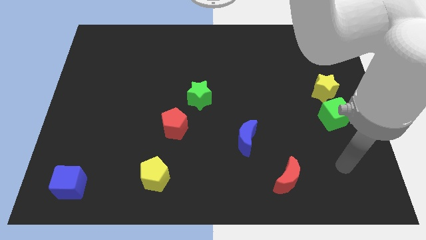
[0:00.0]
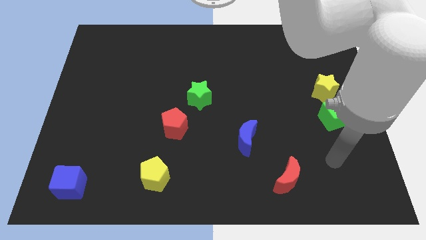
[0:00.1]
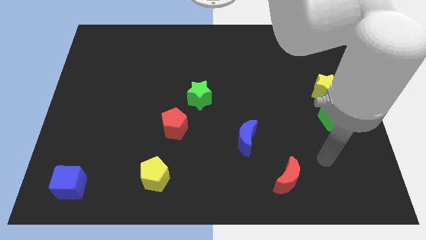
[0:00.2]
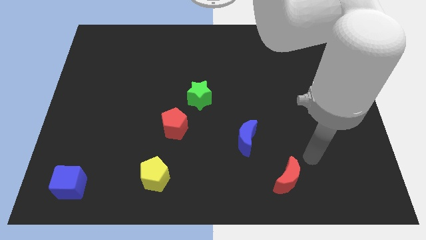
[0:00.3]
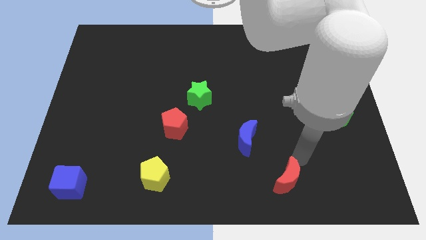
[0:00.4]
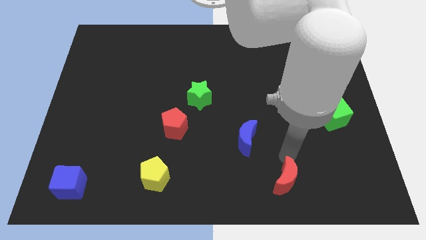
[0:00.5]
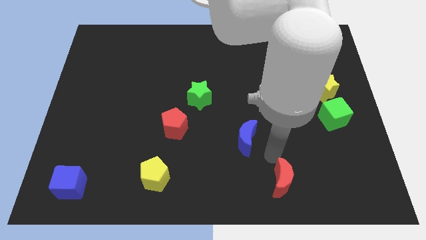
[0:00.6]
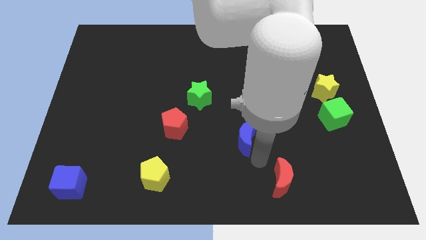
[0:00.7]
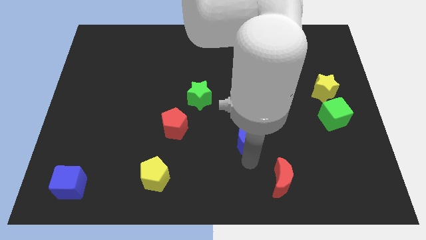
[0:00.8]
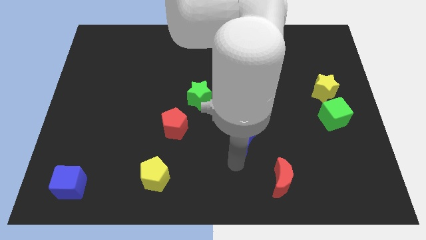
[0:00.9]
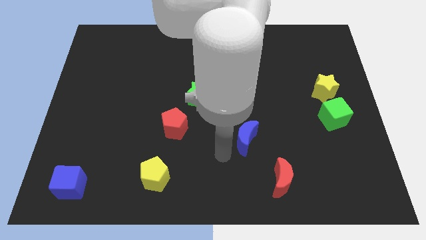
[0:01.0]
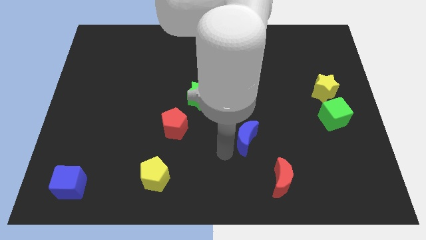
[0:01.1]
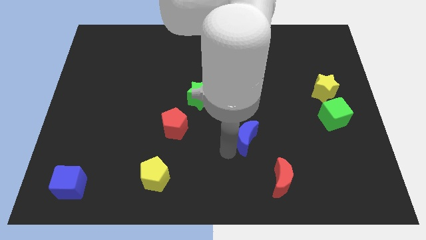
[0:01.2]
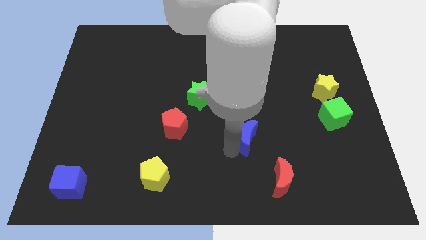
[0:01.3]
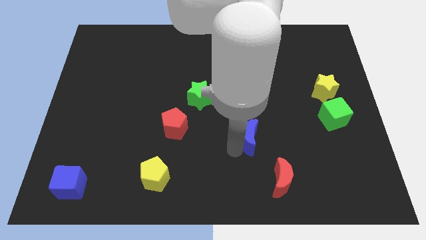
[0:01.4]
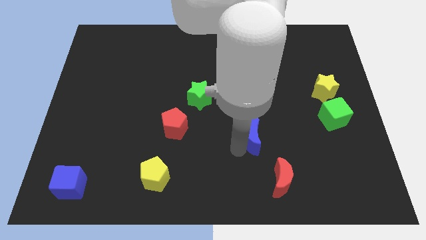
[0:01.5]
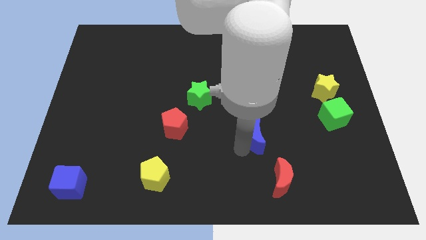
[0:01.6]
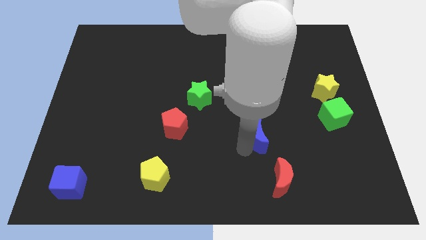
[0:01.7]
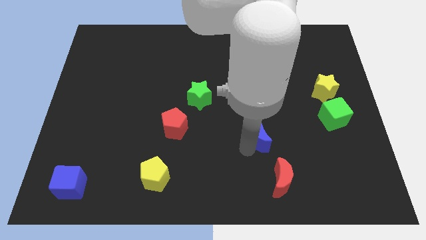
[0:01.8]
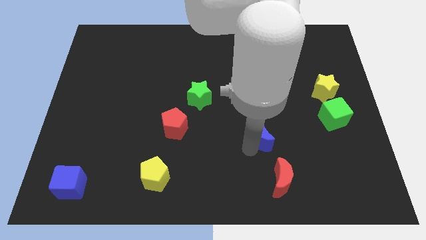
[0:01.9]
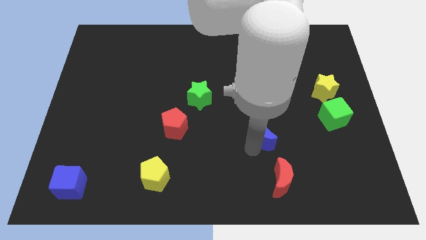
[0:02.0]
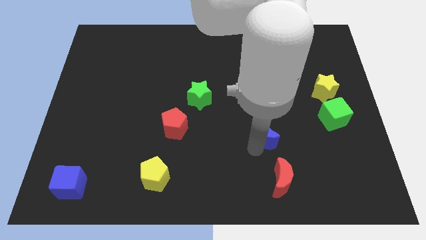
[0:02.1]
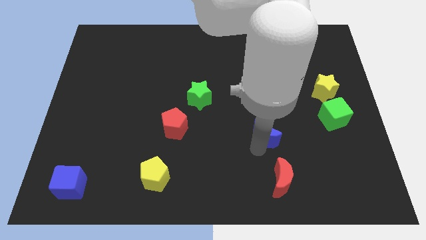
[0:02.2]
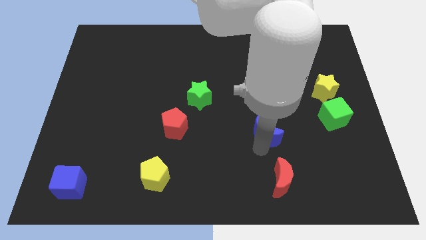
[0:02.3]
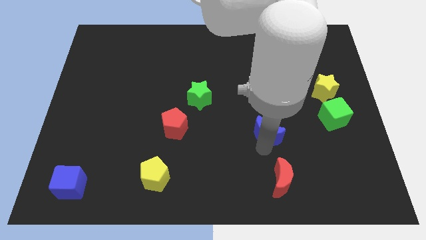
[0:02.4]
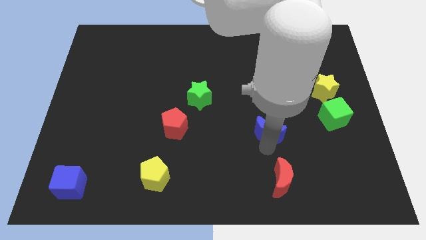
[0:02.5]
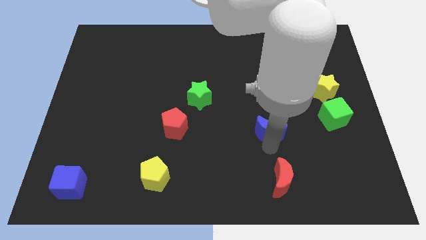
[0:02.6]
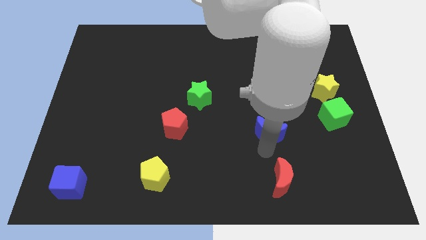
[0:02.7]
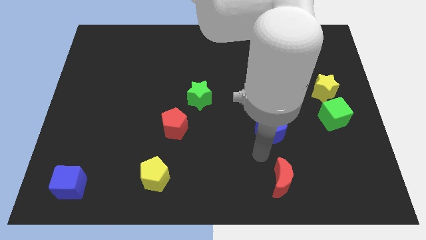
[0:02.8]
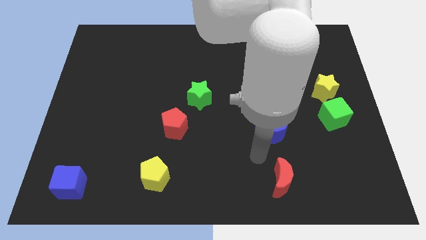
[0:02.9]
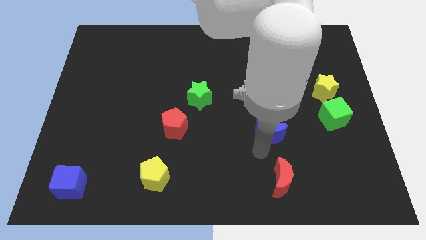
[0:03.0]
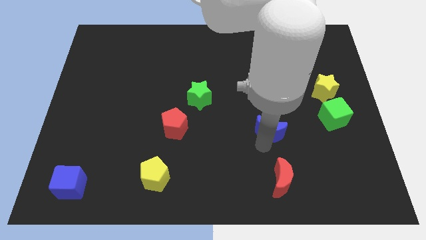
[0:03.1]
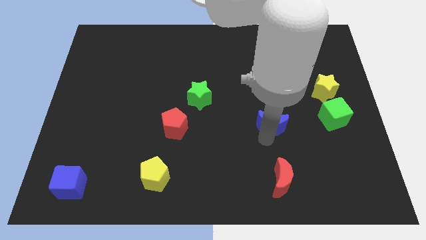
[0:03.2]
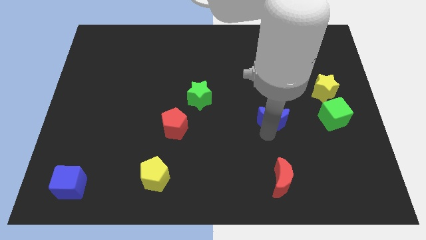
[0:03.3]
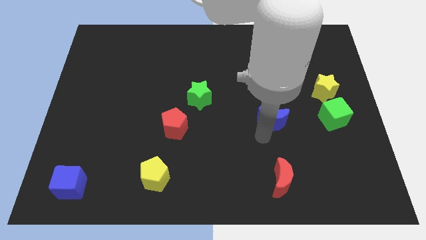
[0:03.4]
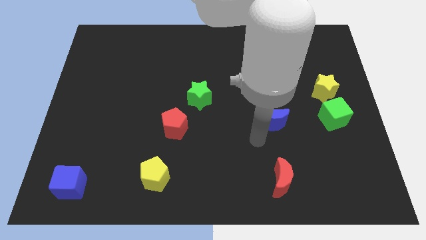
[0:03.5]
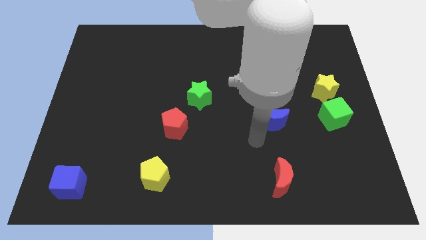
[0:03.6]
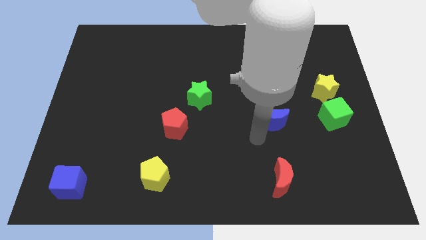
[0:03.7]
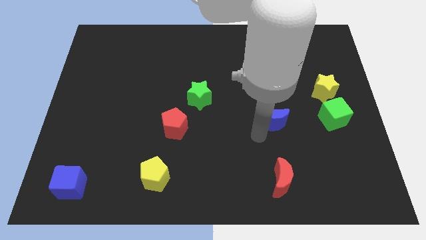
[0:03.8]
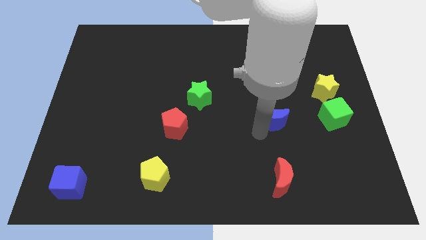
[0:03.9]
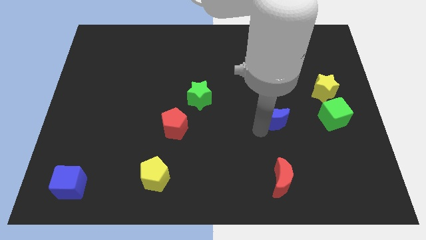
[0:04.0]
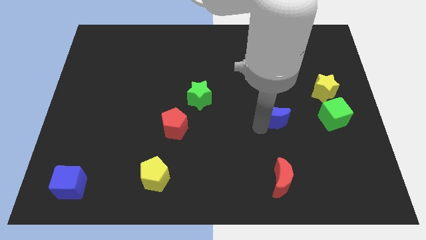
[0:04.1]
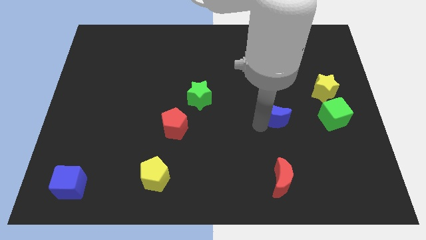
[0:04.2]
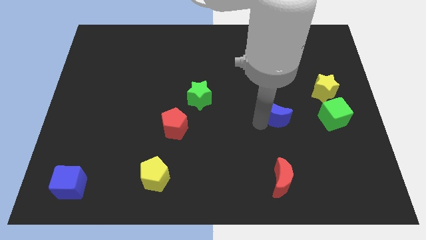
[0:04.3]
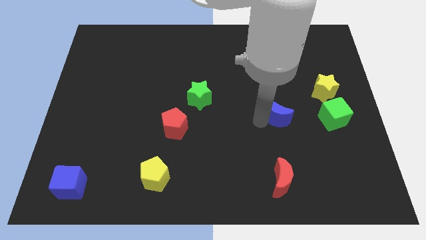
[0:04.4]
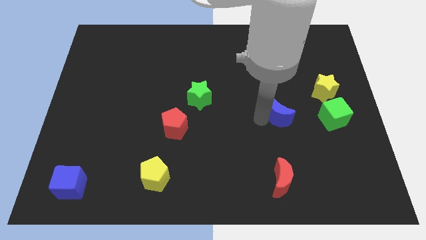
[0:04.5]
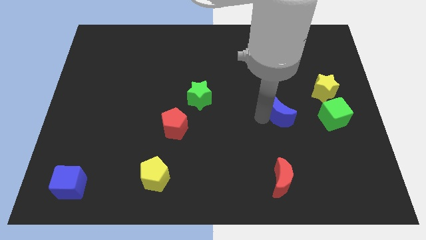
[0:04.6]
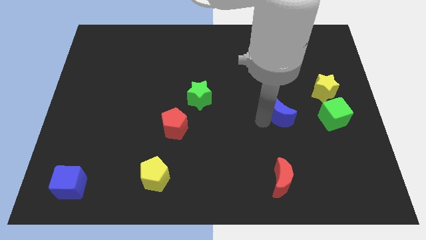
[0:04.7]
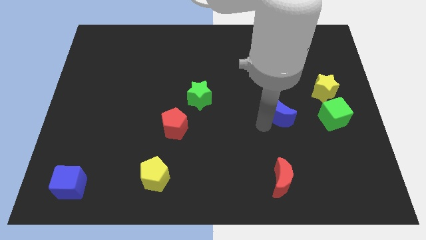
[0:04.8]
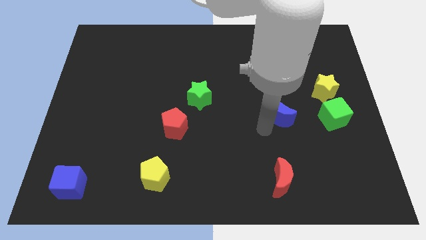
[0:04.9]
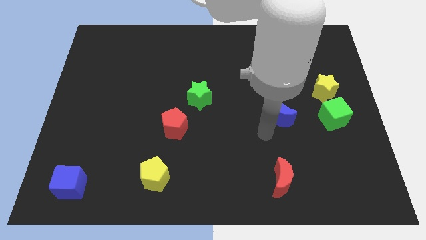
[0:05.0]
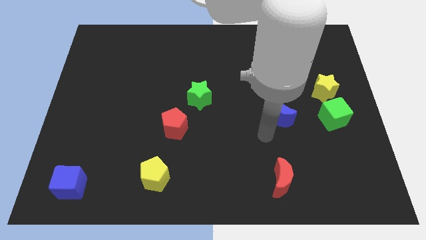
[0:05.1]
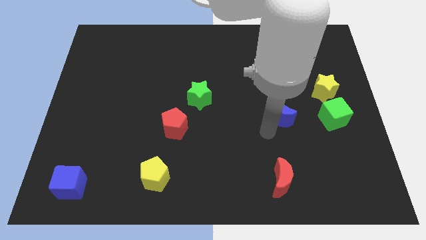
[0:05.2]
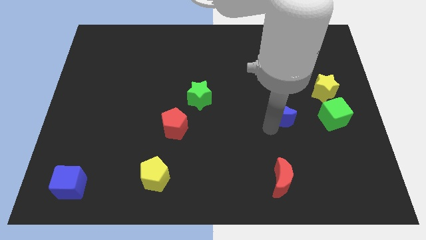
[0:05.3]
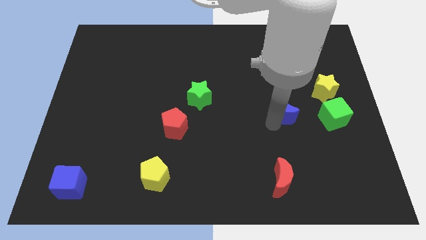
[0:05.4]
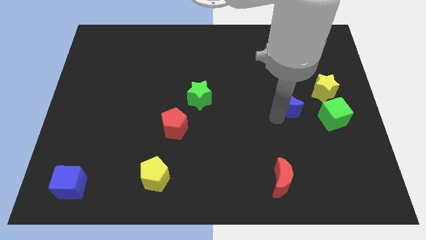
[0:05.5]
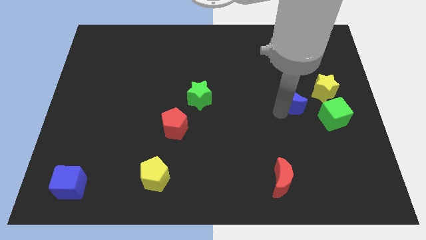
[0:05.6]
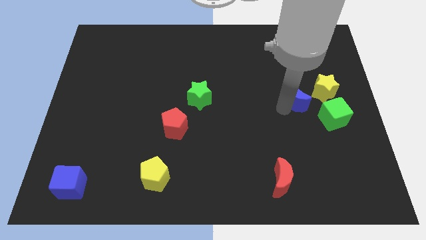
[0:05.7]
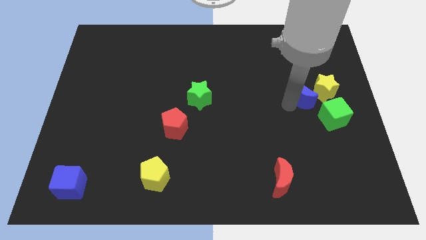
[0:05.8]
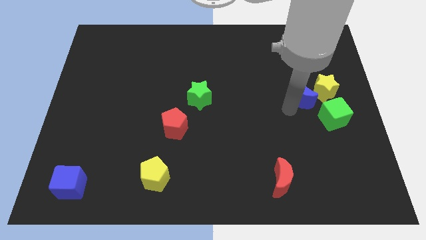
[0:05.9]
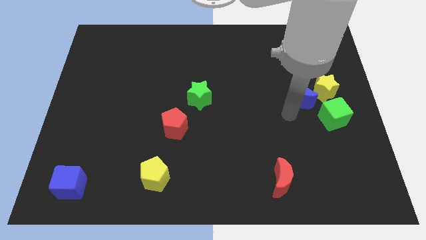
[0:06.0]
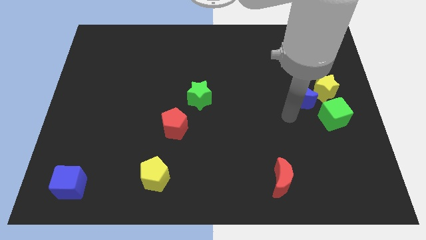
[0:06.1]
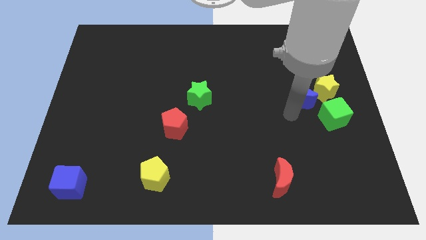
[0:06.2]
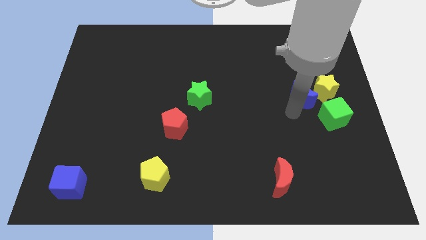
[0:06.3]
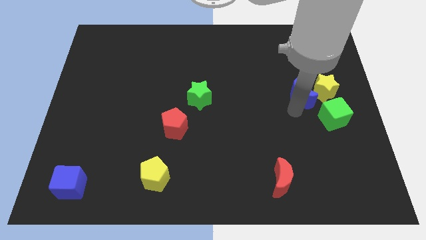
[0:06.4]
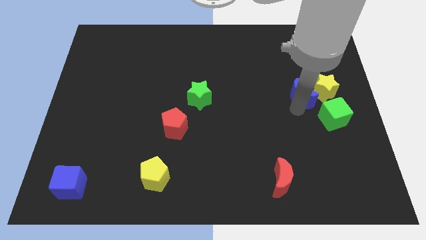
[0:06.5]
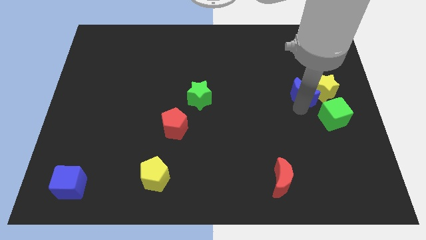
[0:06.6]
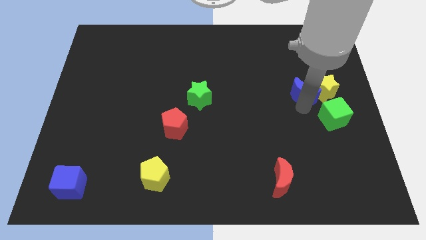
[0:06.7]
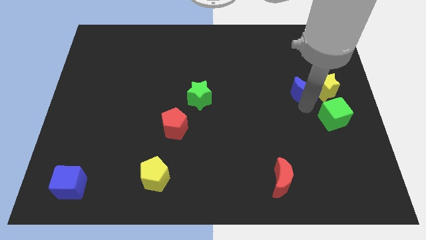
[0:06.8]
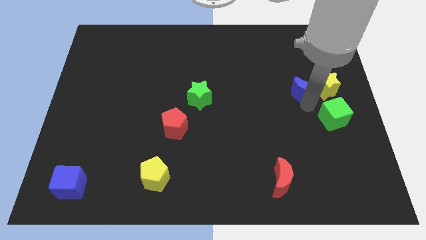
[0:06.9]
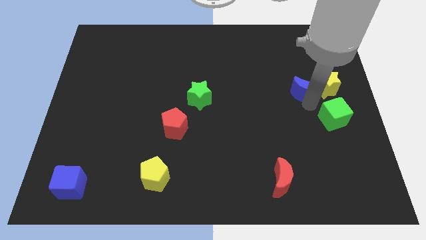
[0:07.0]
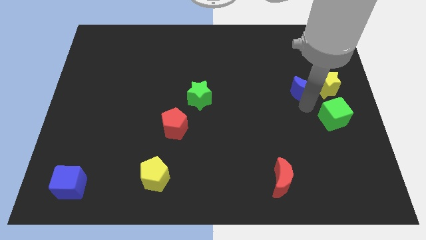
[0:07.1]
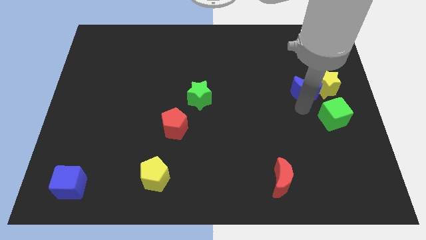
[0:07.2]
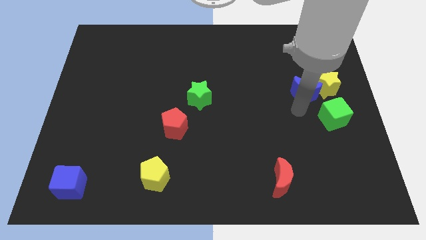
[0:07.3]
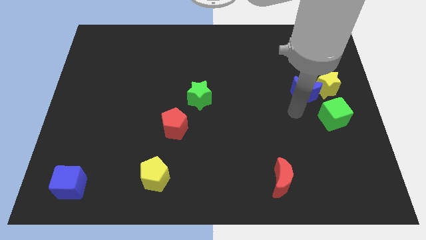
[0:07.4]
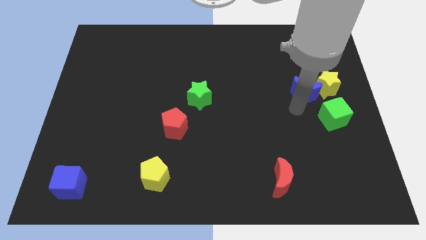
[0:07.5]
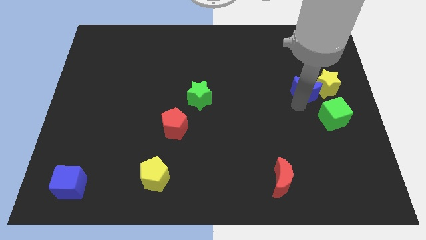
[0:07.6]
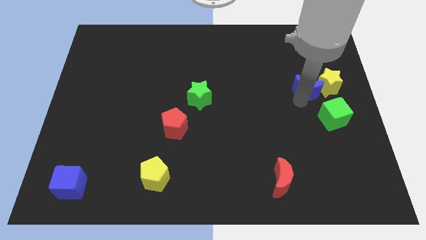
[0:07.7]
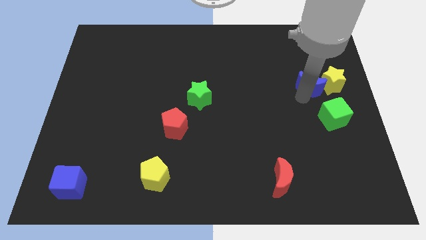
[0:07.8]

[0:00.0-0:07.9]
move the blue moon to the top of the green cube
